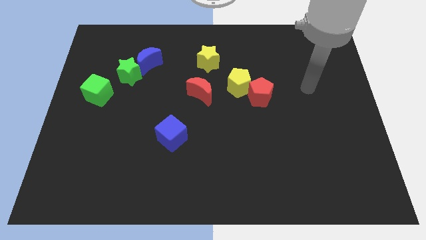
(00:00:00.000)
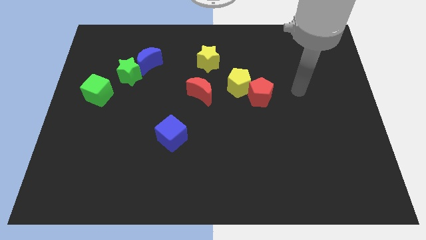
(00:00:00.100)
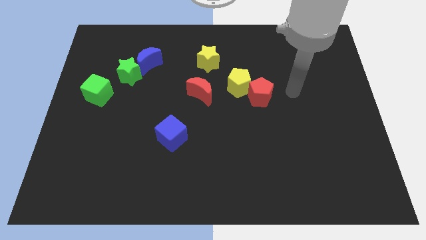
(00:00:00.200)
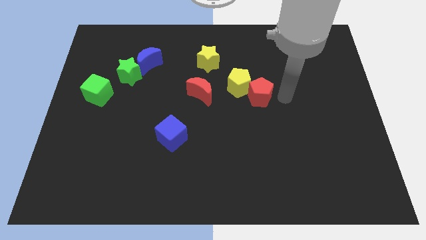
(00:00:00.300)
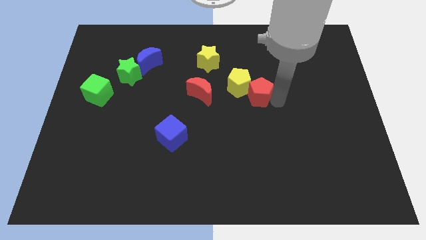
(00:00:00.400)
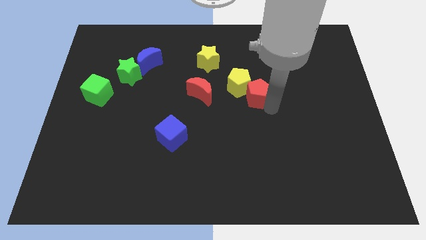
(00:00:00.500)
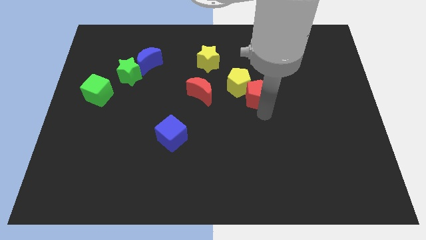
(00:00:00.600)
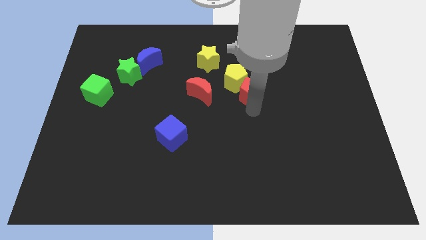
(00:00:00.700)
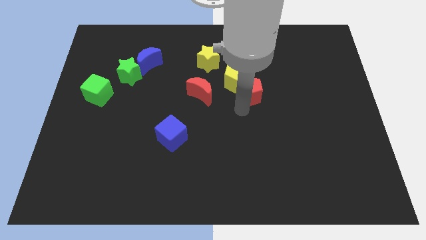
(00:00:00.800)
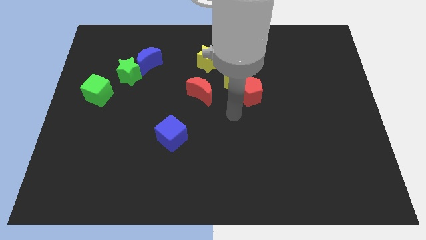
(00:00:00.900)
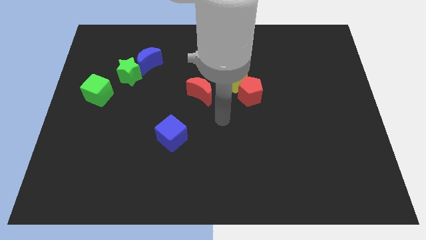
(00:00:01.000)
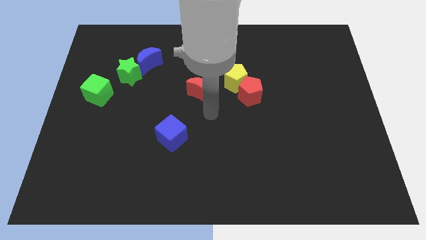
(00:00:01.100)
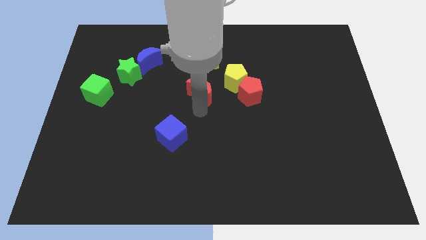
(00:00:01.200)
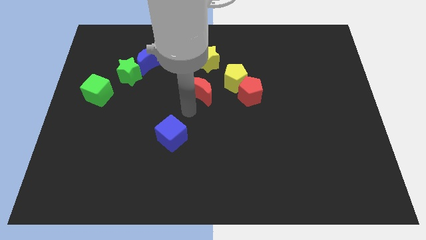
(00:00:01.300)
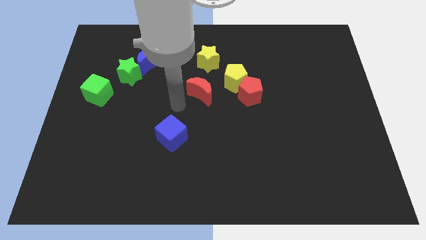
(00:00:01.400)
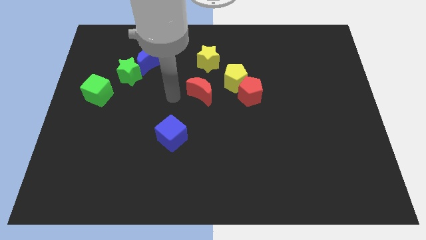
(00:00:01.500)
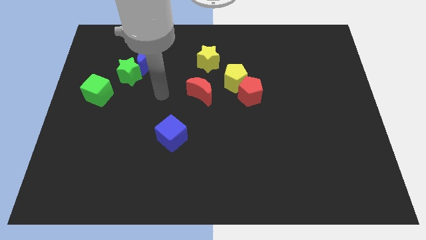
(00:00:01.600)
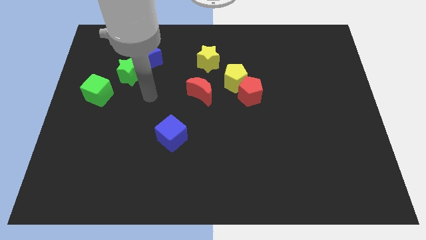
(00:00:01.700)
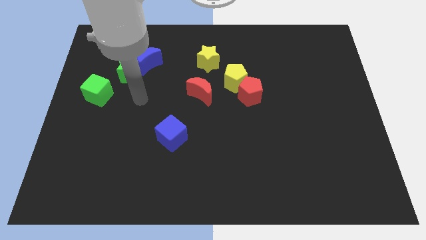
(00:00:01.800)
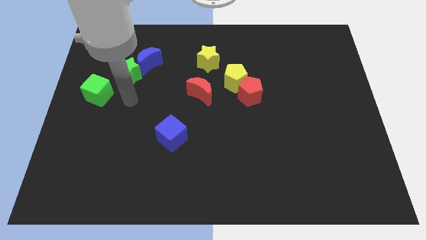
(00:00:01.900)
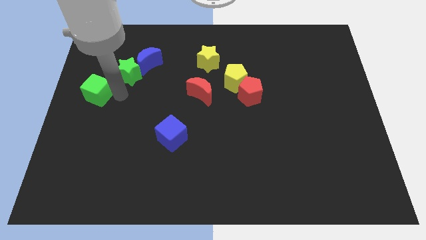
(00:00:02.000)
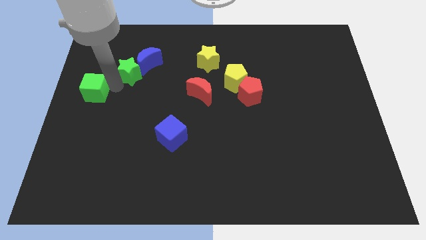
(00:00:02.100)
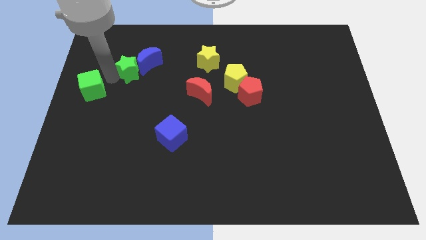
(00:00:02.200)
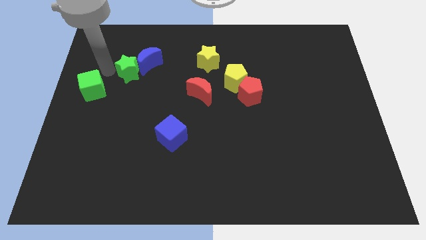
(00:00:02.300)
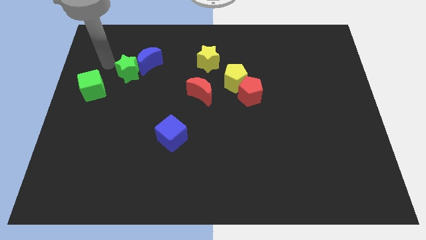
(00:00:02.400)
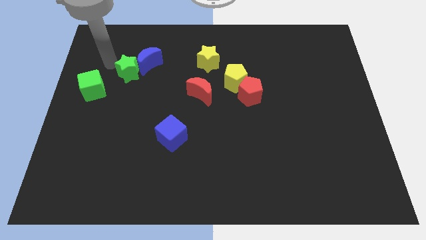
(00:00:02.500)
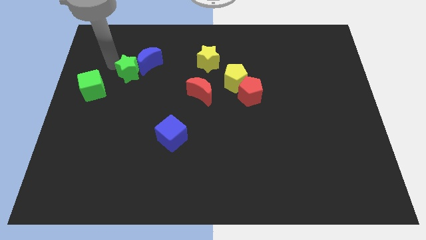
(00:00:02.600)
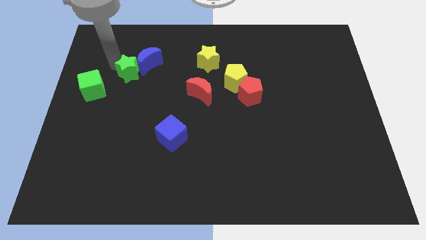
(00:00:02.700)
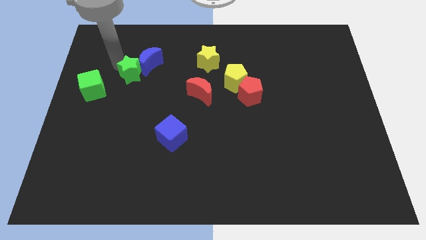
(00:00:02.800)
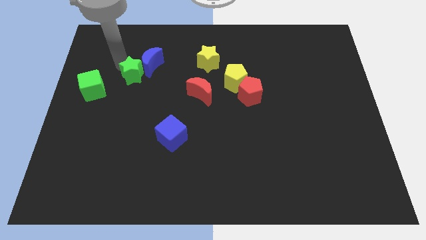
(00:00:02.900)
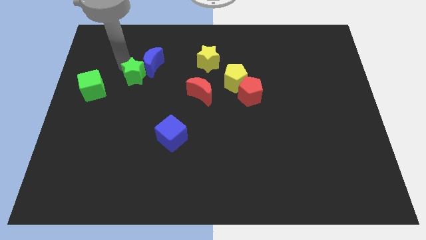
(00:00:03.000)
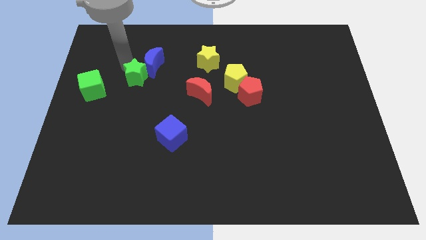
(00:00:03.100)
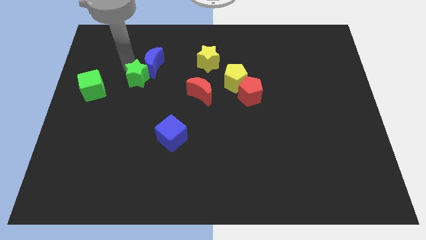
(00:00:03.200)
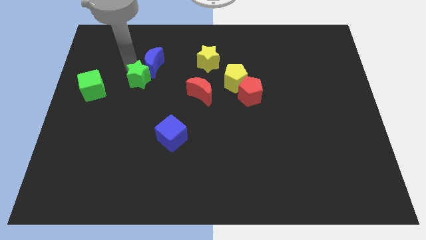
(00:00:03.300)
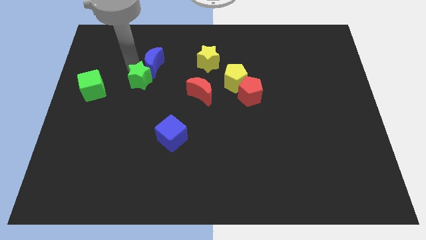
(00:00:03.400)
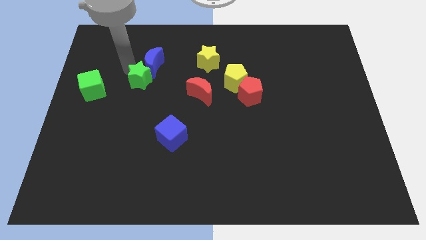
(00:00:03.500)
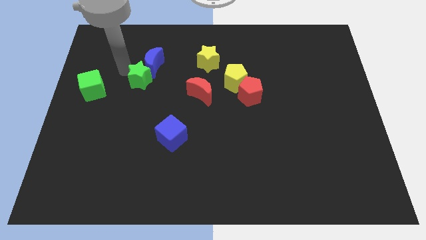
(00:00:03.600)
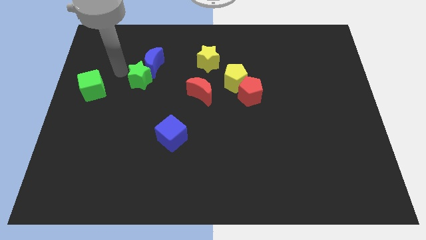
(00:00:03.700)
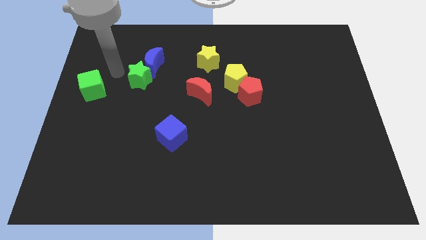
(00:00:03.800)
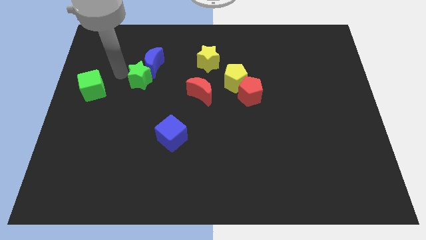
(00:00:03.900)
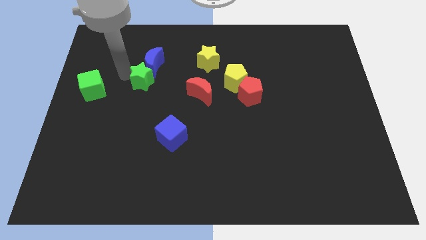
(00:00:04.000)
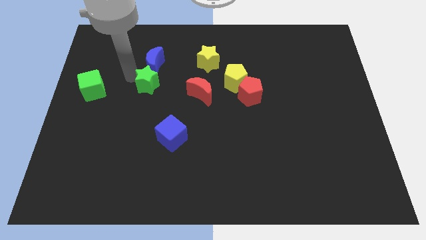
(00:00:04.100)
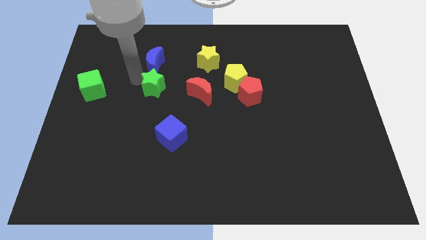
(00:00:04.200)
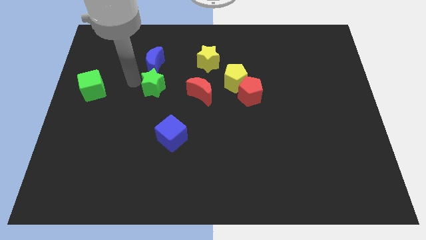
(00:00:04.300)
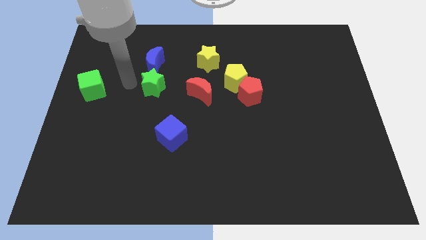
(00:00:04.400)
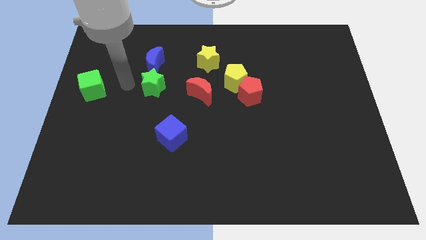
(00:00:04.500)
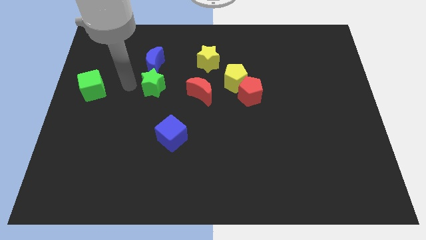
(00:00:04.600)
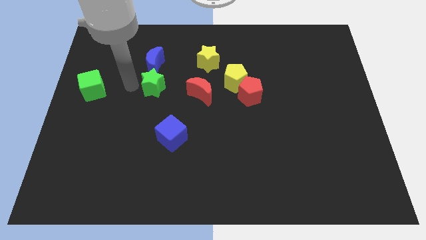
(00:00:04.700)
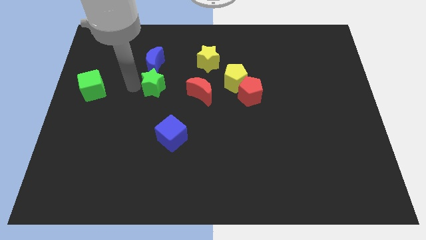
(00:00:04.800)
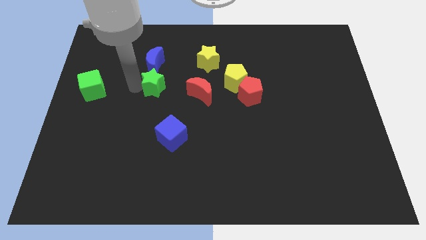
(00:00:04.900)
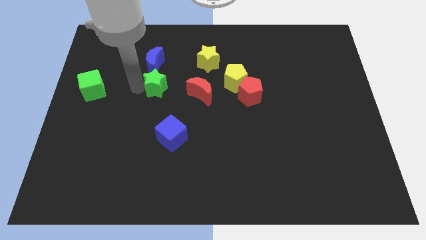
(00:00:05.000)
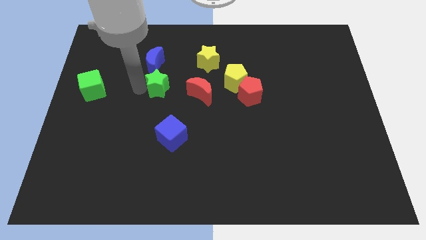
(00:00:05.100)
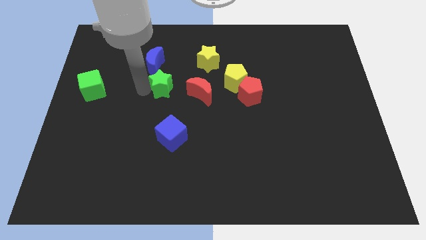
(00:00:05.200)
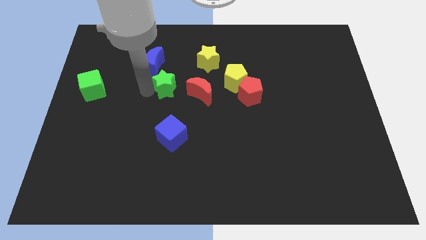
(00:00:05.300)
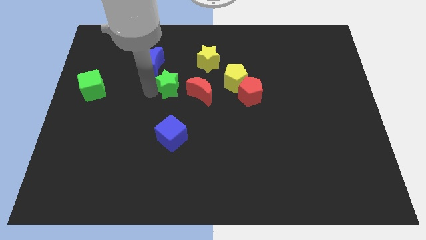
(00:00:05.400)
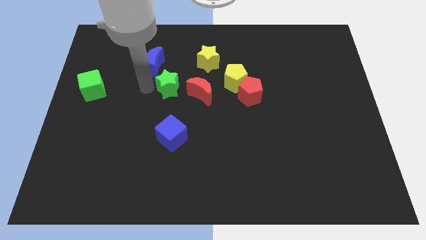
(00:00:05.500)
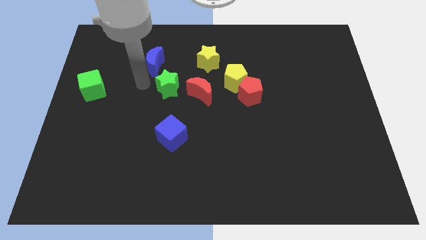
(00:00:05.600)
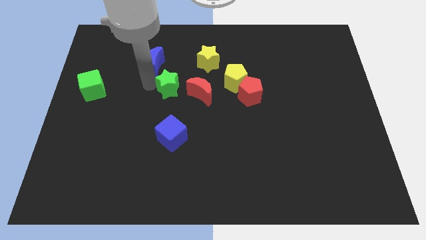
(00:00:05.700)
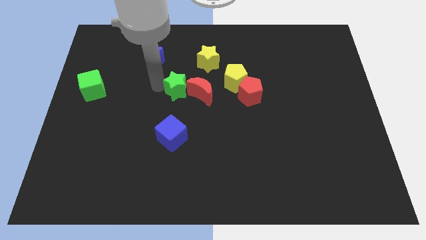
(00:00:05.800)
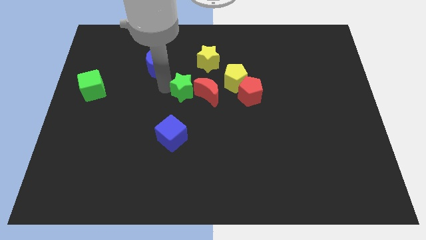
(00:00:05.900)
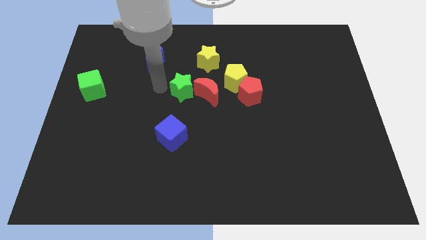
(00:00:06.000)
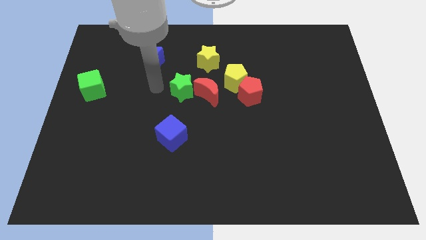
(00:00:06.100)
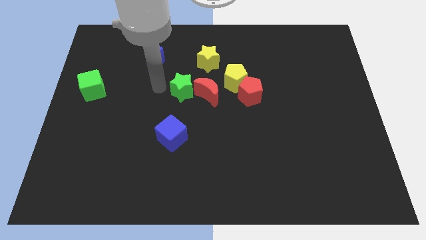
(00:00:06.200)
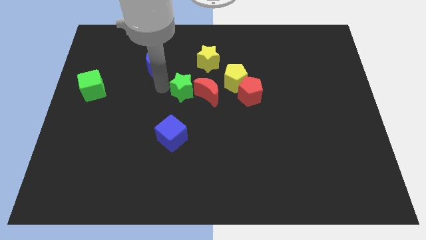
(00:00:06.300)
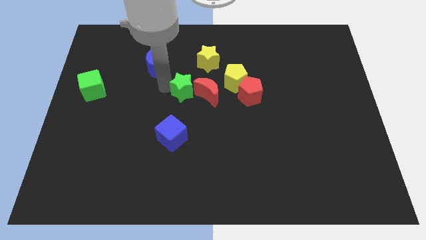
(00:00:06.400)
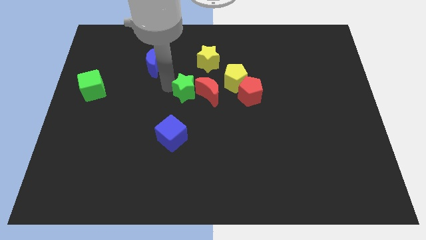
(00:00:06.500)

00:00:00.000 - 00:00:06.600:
put the green star close to the red moon

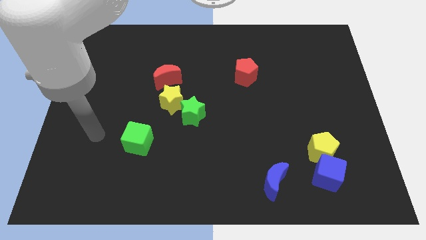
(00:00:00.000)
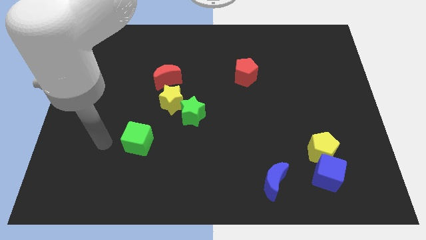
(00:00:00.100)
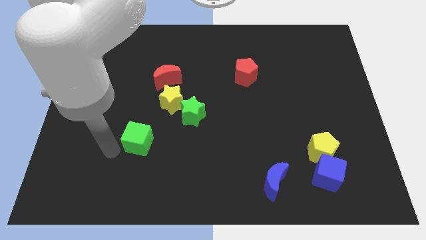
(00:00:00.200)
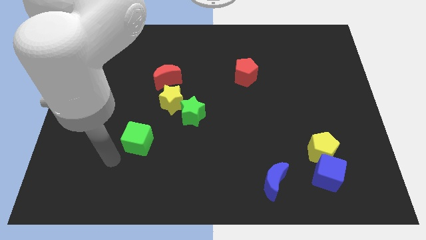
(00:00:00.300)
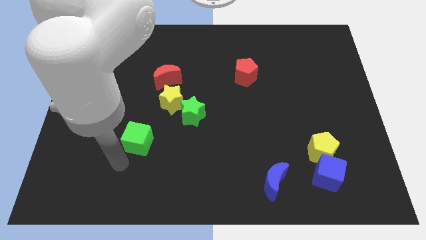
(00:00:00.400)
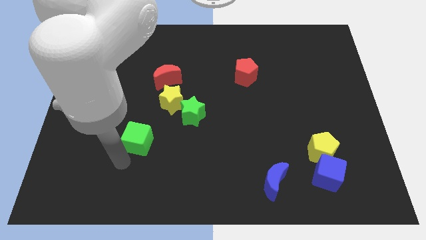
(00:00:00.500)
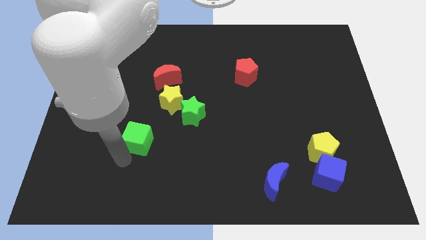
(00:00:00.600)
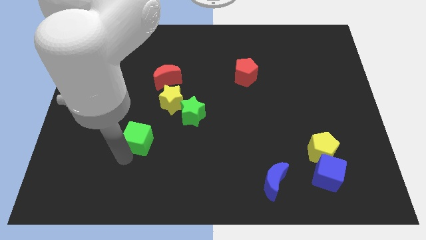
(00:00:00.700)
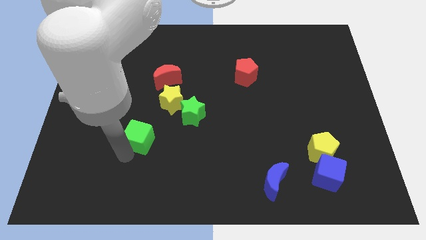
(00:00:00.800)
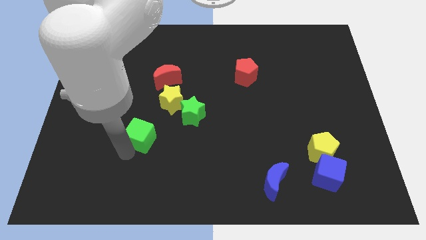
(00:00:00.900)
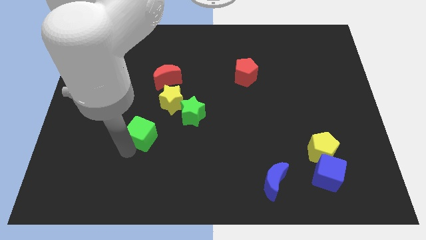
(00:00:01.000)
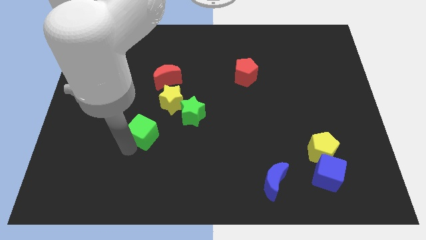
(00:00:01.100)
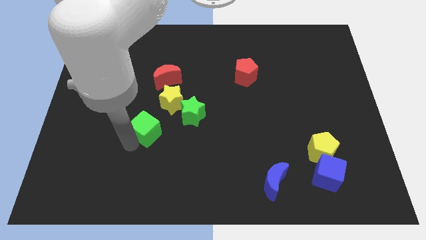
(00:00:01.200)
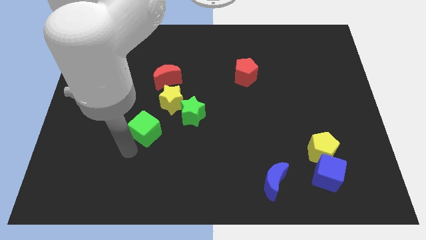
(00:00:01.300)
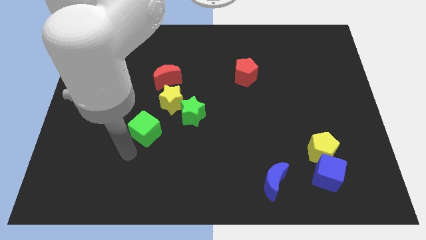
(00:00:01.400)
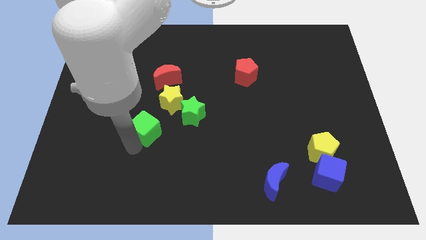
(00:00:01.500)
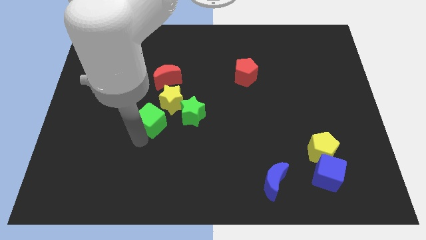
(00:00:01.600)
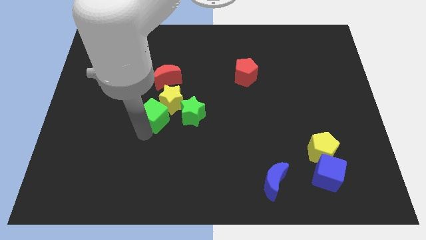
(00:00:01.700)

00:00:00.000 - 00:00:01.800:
push the green cube close to the yellow star
